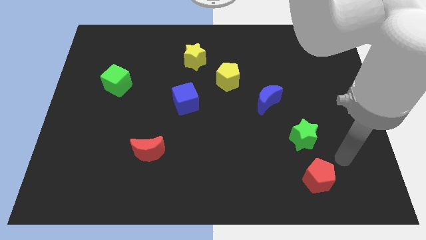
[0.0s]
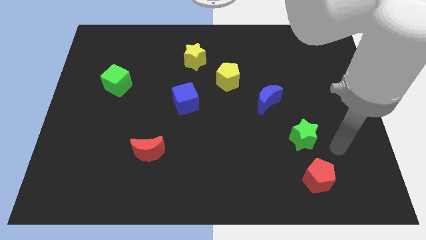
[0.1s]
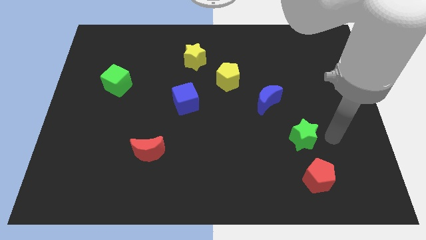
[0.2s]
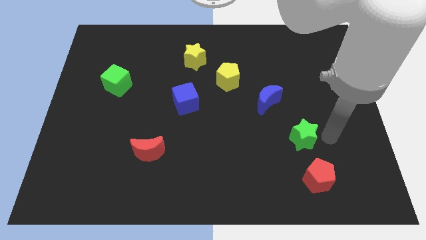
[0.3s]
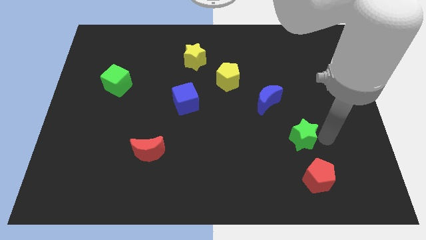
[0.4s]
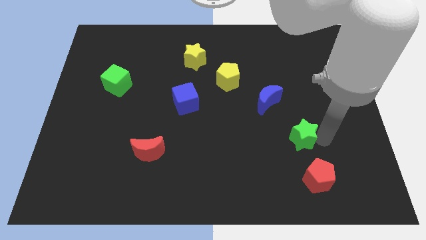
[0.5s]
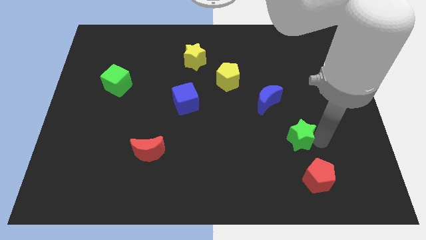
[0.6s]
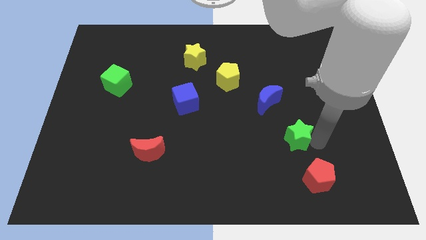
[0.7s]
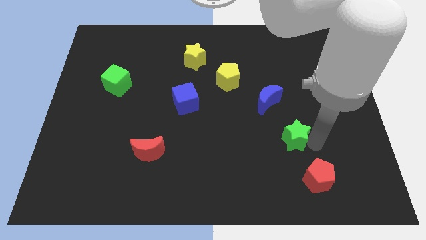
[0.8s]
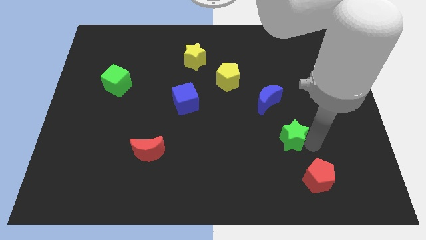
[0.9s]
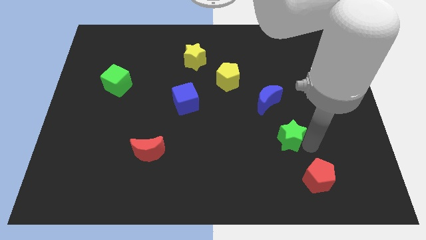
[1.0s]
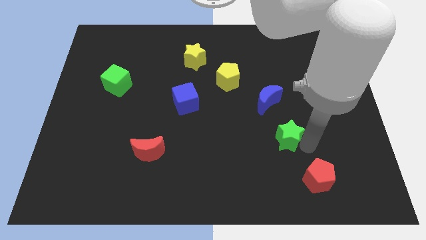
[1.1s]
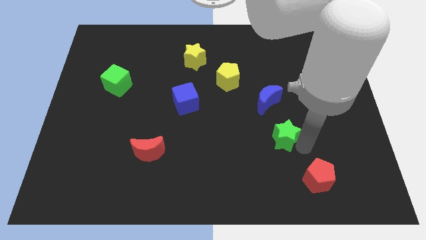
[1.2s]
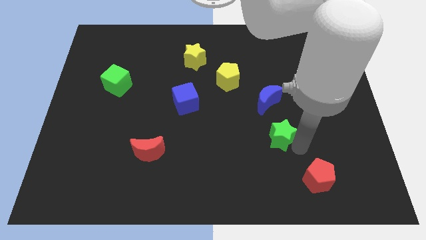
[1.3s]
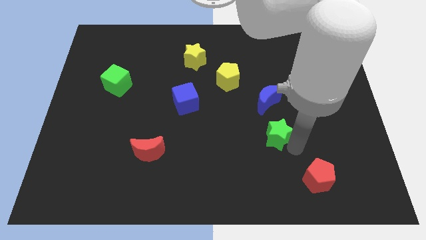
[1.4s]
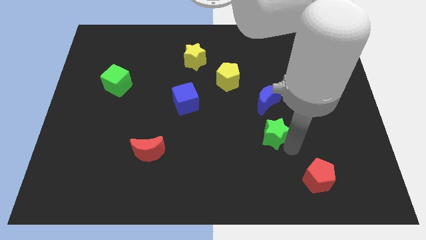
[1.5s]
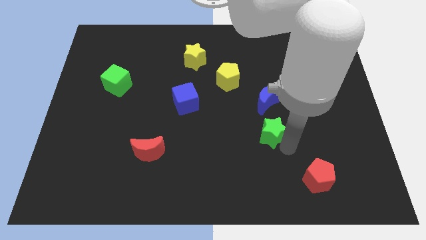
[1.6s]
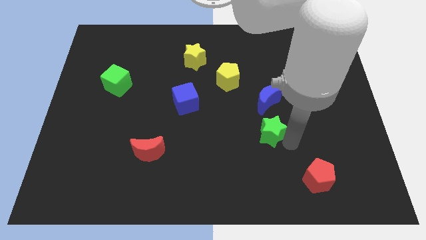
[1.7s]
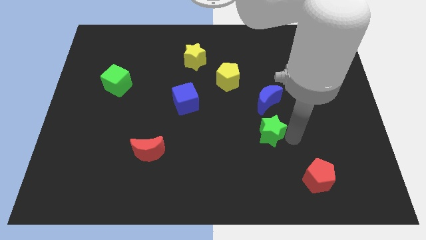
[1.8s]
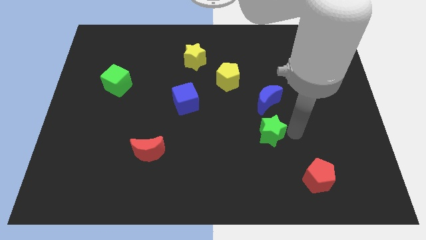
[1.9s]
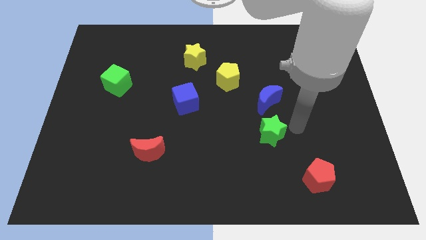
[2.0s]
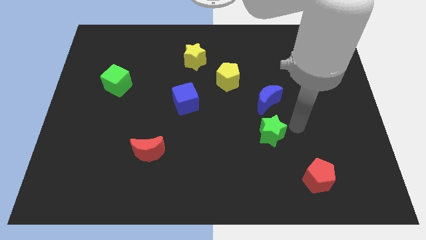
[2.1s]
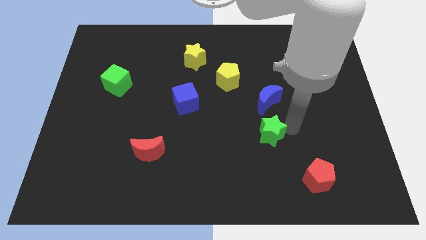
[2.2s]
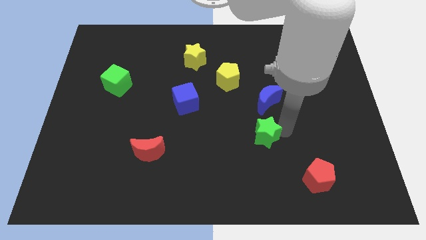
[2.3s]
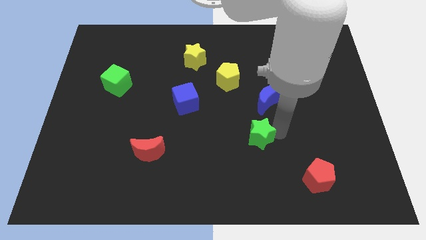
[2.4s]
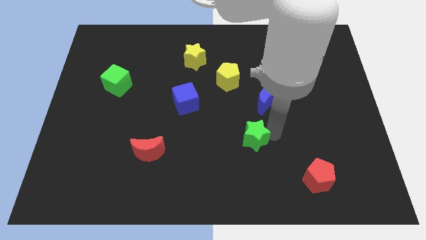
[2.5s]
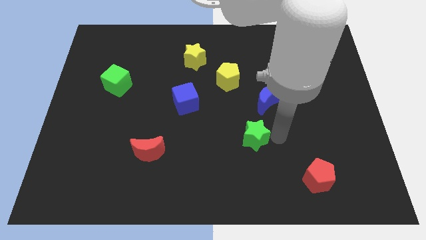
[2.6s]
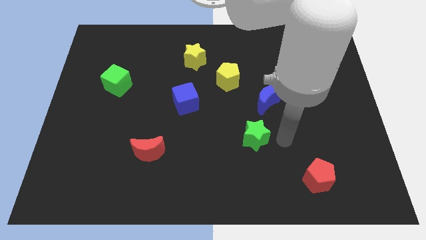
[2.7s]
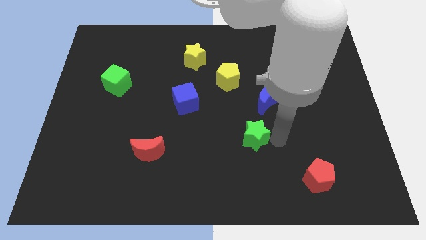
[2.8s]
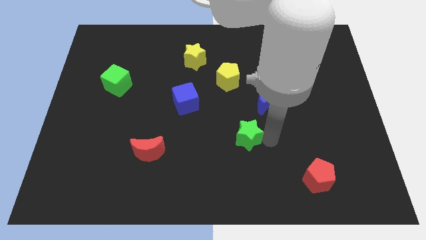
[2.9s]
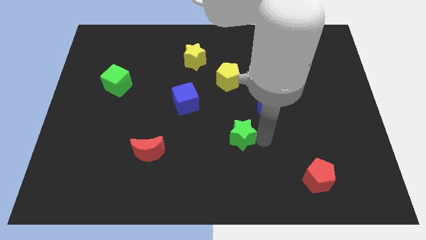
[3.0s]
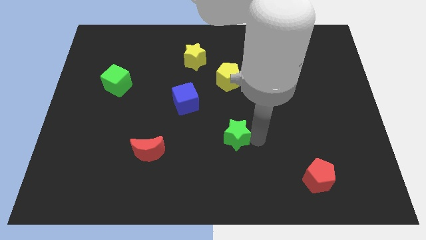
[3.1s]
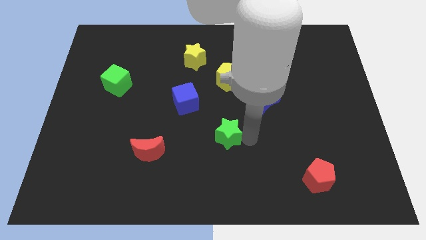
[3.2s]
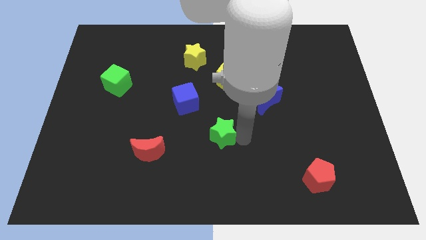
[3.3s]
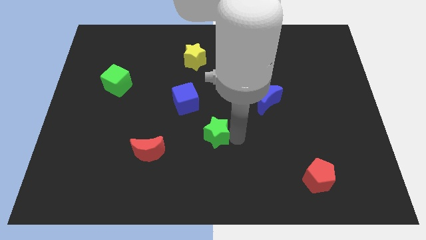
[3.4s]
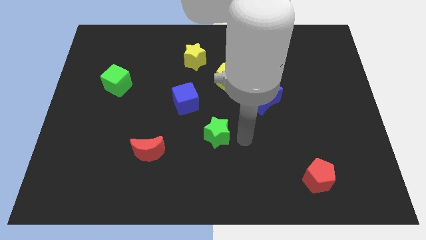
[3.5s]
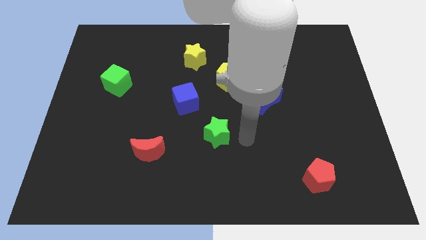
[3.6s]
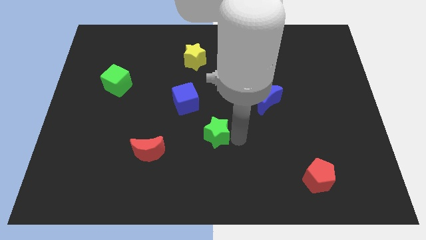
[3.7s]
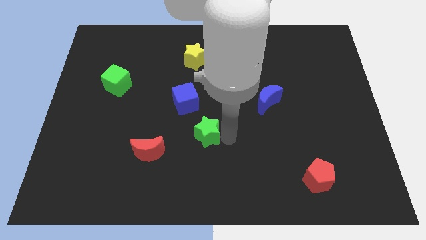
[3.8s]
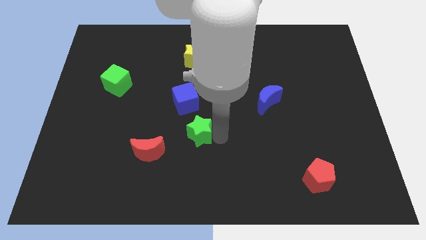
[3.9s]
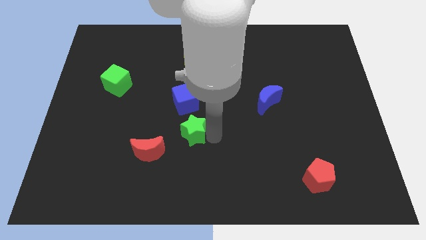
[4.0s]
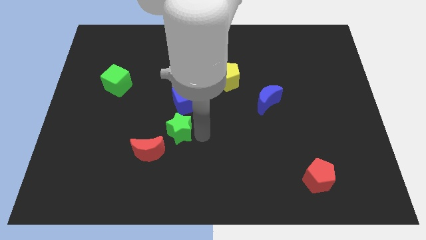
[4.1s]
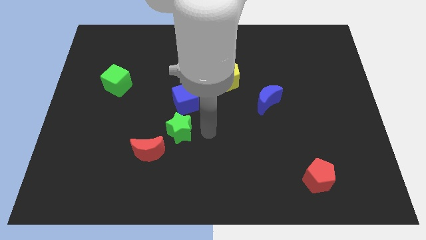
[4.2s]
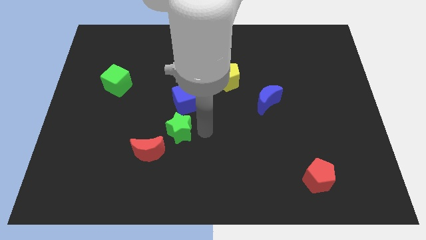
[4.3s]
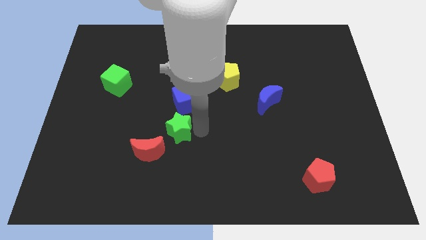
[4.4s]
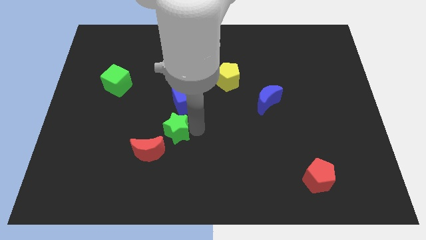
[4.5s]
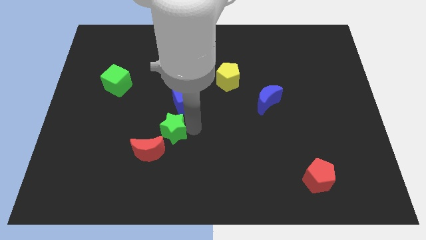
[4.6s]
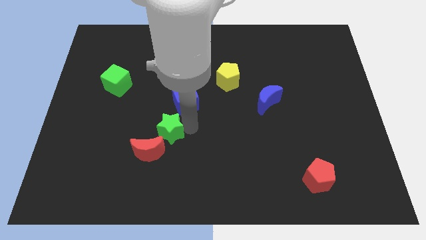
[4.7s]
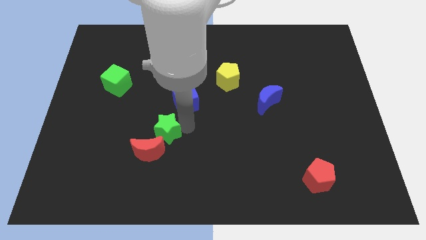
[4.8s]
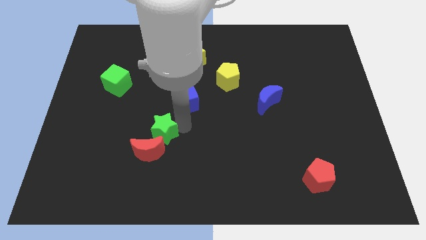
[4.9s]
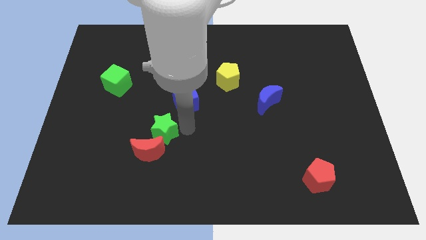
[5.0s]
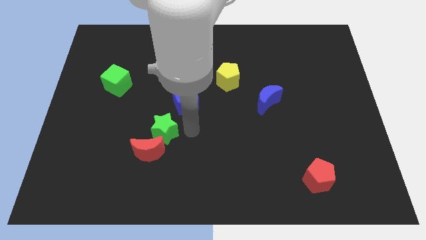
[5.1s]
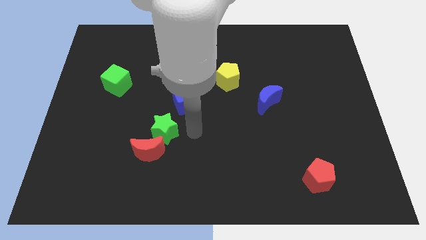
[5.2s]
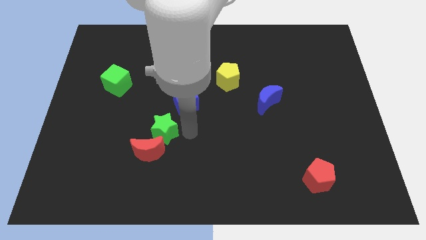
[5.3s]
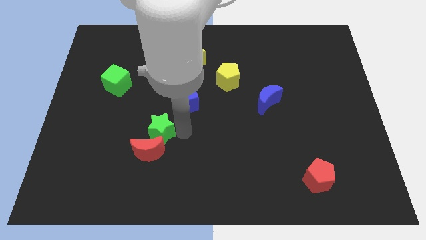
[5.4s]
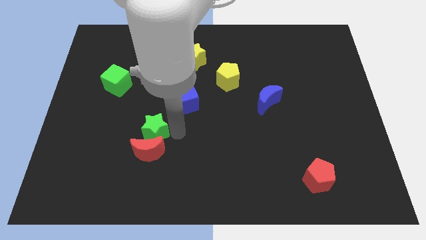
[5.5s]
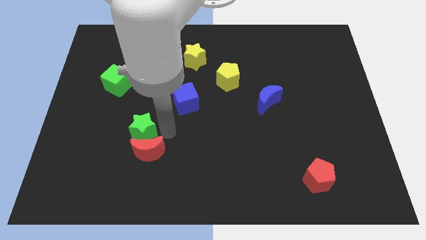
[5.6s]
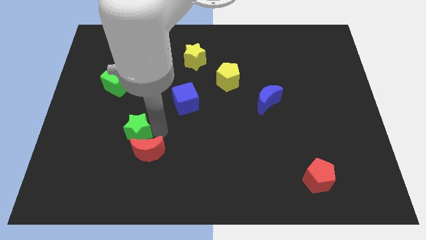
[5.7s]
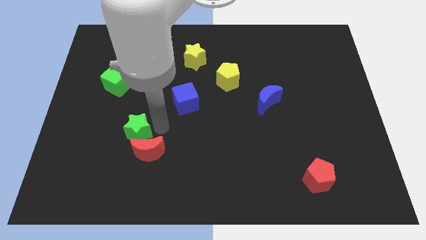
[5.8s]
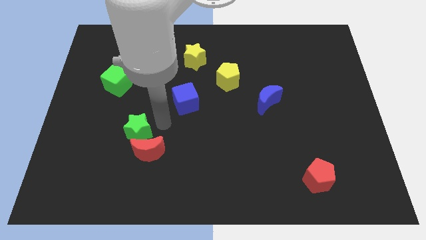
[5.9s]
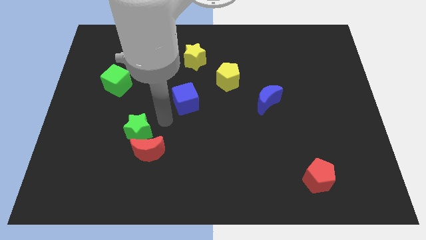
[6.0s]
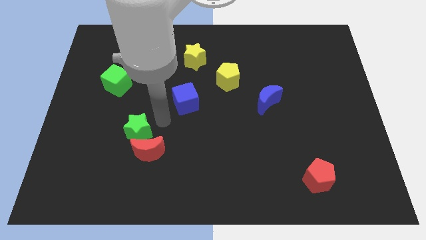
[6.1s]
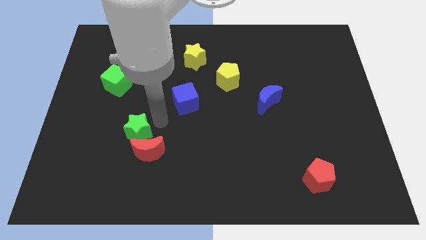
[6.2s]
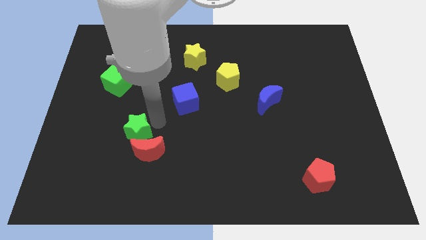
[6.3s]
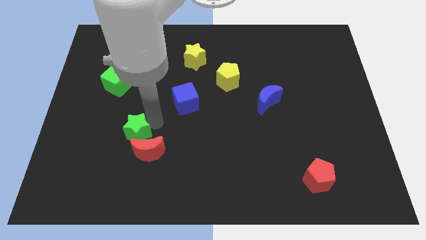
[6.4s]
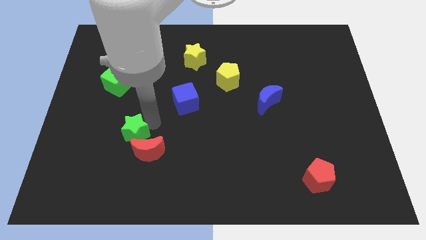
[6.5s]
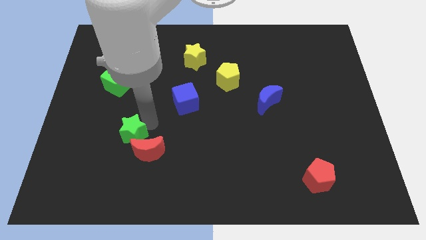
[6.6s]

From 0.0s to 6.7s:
put the green star to the left of the red moon
